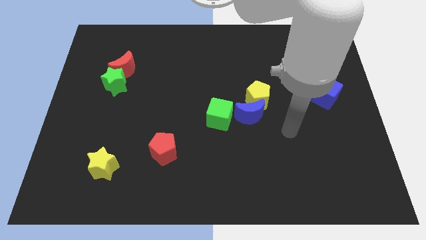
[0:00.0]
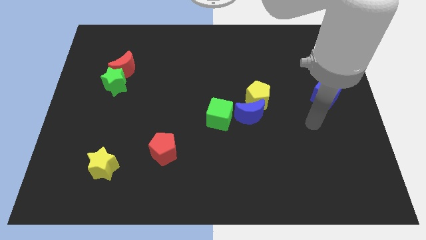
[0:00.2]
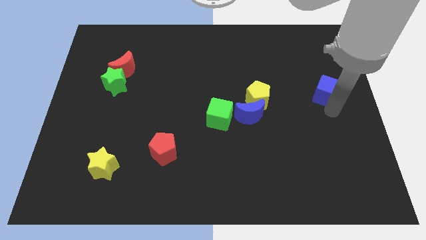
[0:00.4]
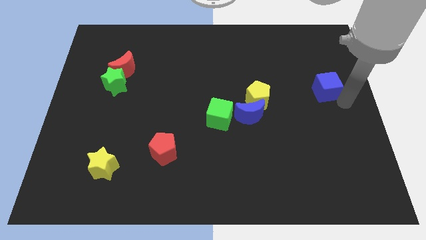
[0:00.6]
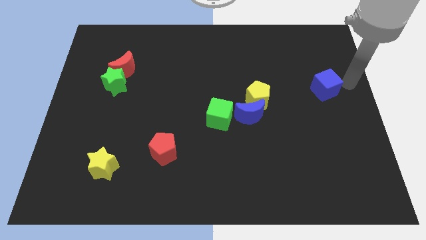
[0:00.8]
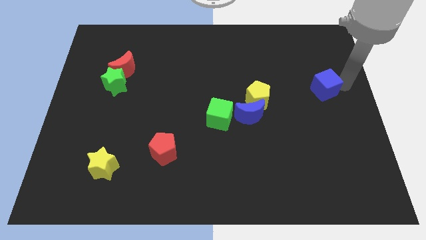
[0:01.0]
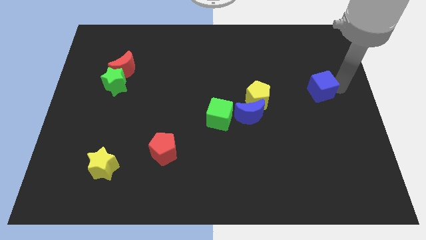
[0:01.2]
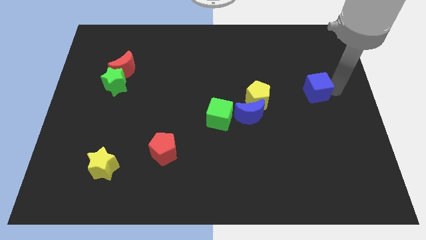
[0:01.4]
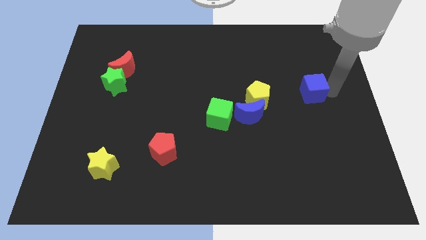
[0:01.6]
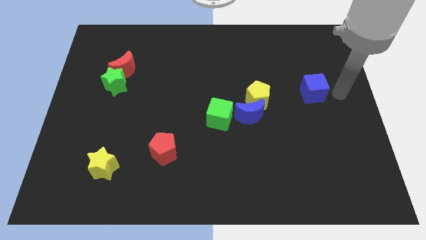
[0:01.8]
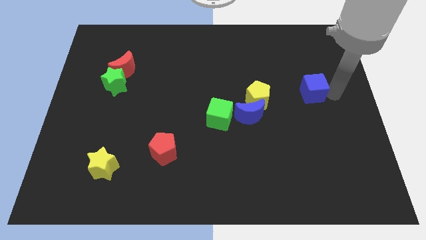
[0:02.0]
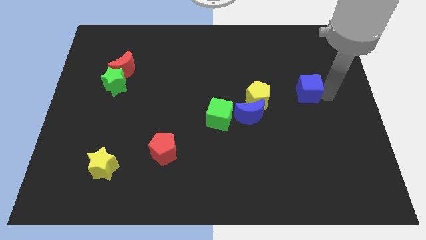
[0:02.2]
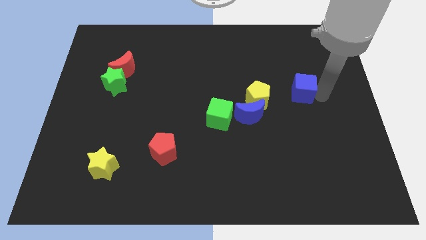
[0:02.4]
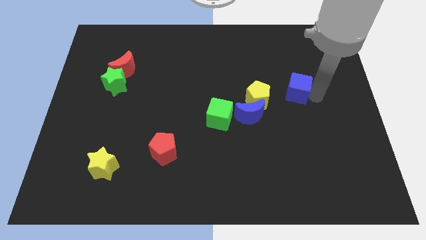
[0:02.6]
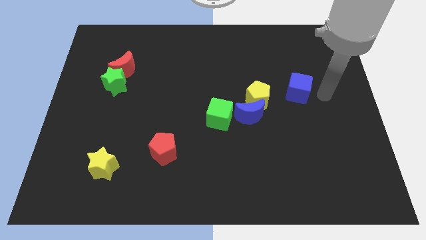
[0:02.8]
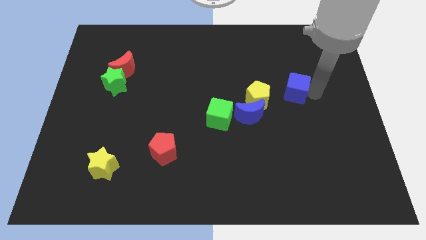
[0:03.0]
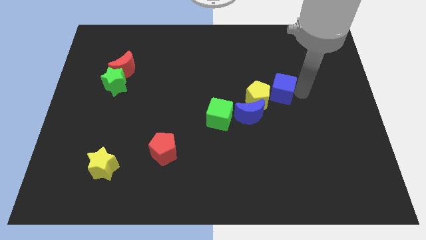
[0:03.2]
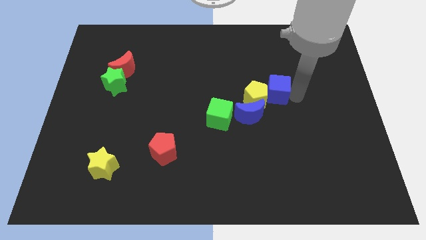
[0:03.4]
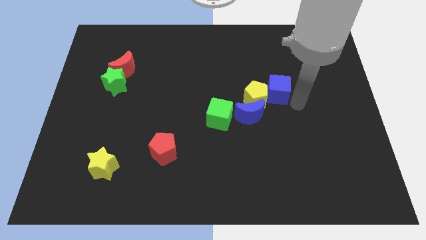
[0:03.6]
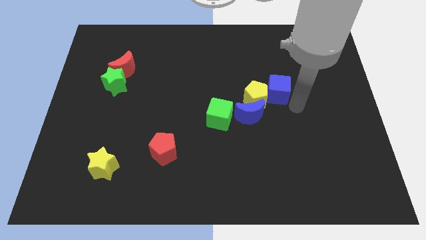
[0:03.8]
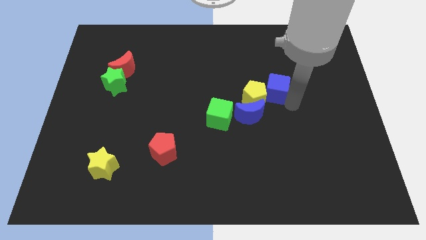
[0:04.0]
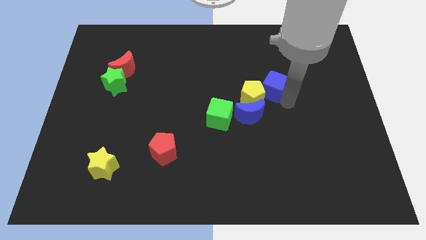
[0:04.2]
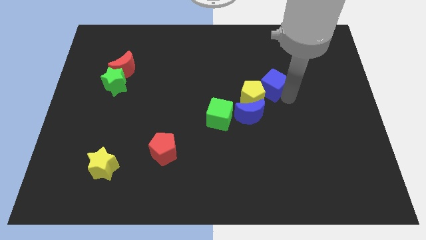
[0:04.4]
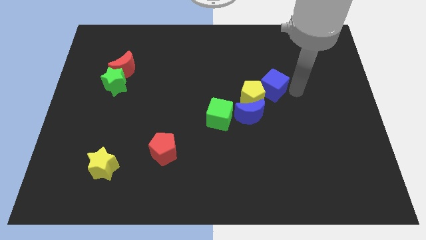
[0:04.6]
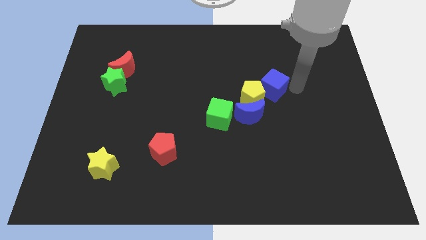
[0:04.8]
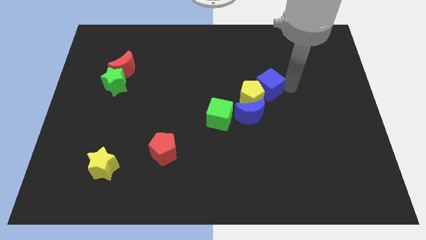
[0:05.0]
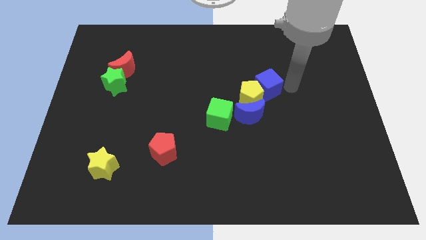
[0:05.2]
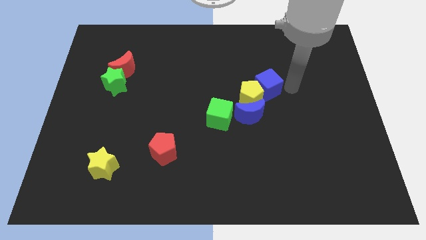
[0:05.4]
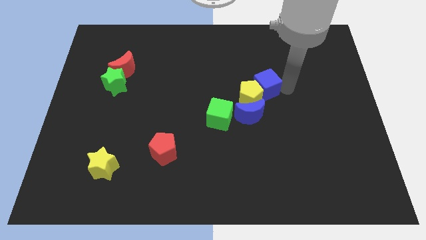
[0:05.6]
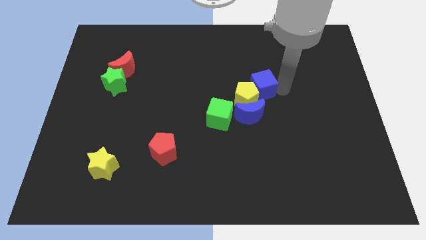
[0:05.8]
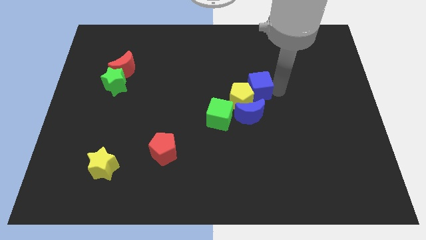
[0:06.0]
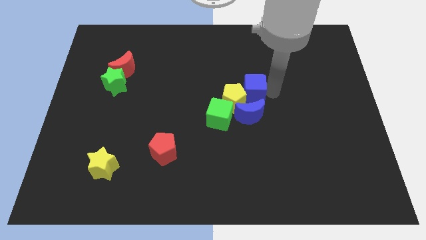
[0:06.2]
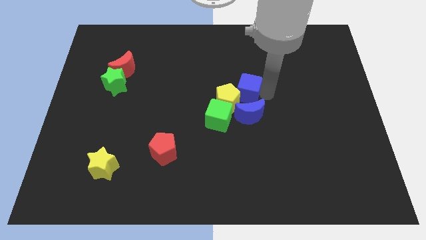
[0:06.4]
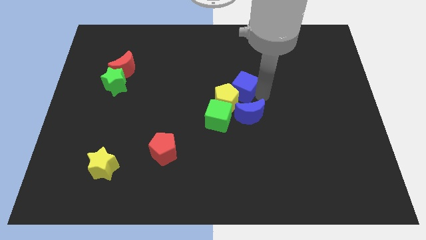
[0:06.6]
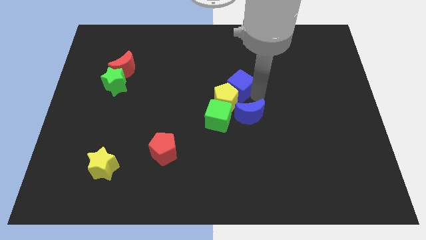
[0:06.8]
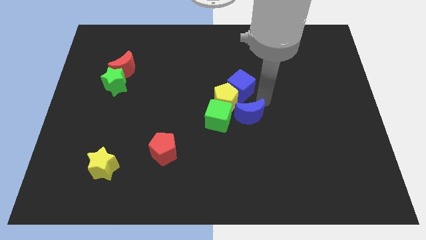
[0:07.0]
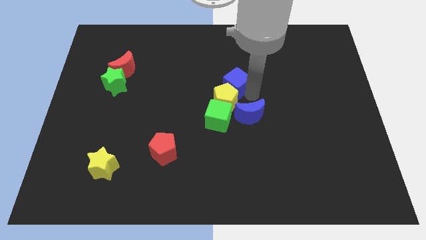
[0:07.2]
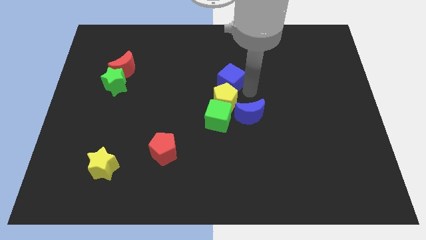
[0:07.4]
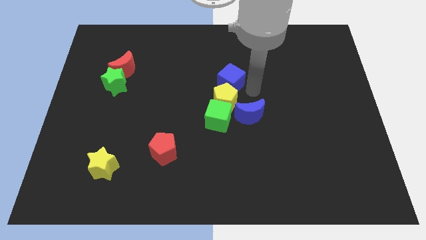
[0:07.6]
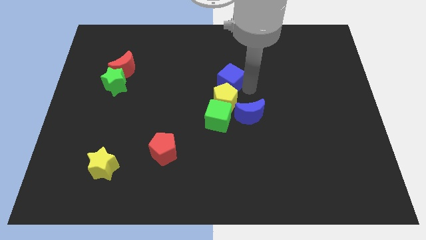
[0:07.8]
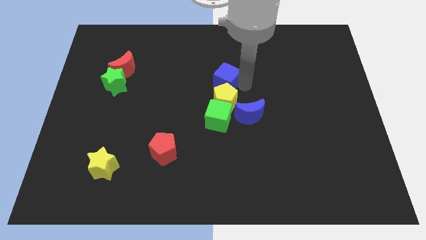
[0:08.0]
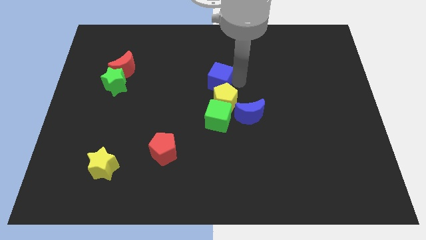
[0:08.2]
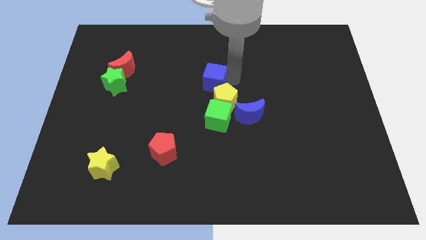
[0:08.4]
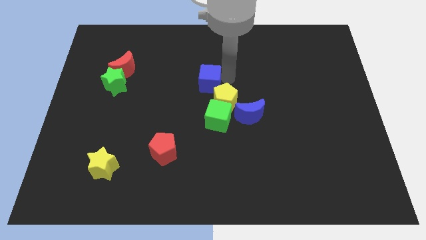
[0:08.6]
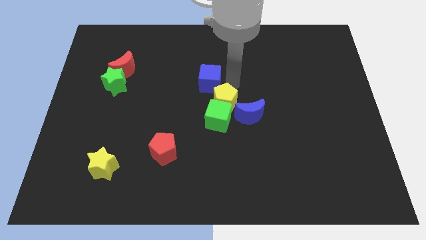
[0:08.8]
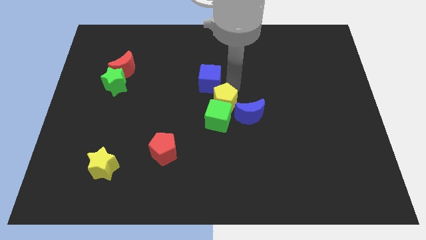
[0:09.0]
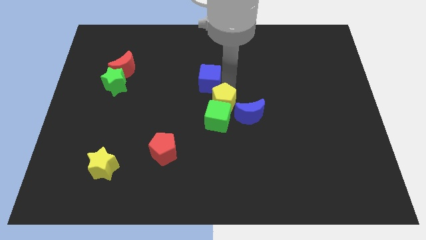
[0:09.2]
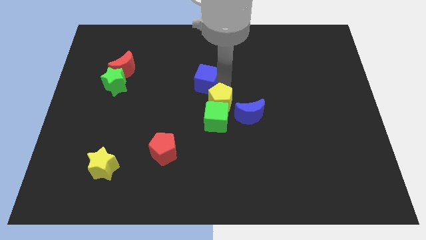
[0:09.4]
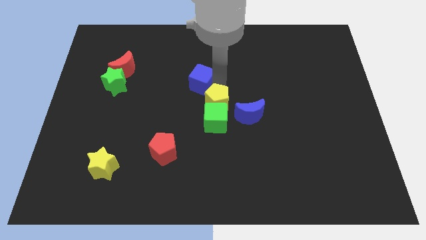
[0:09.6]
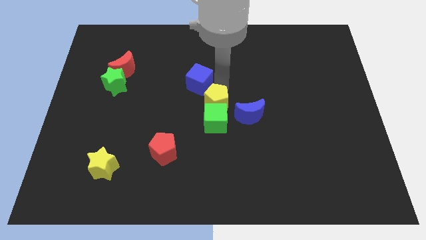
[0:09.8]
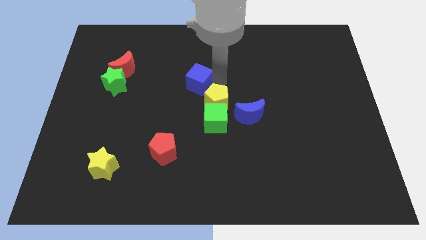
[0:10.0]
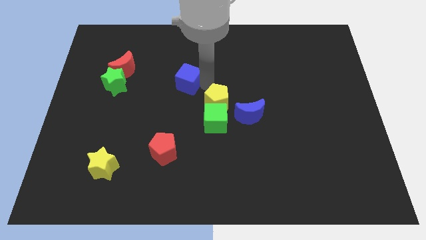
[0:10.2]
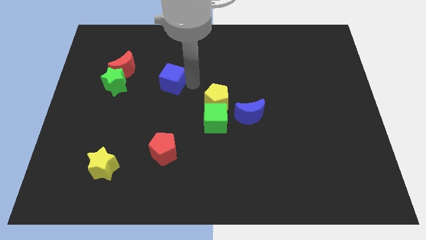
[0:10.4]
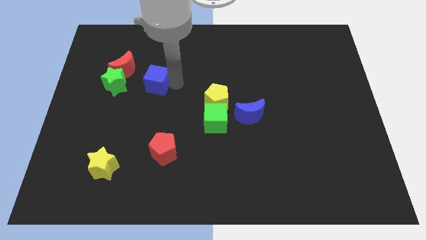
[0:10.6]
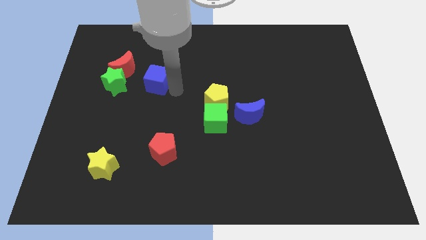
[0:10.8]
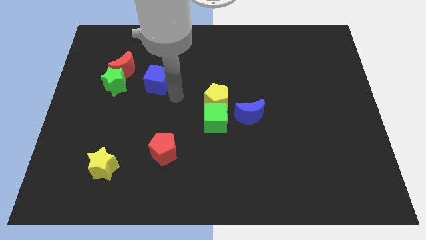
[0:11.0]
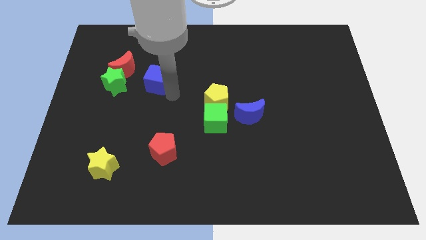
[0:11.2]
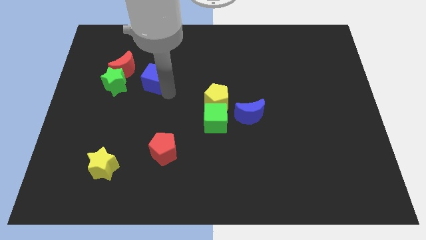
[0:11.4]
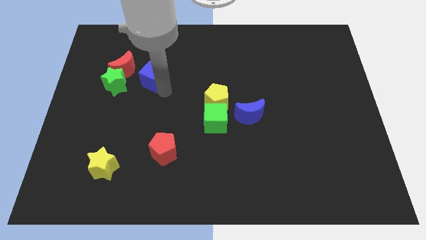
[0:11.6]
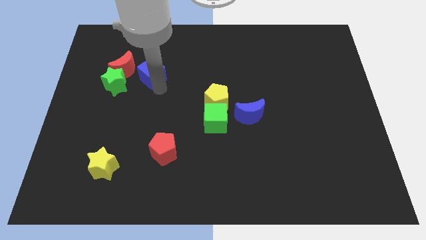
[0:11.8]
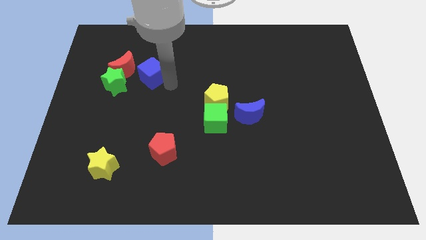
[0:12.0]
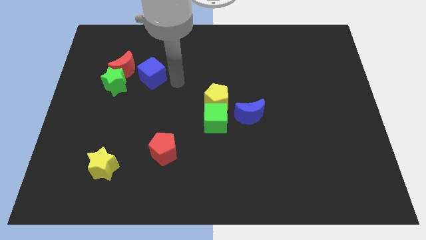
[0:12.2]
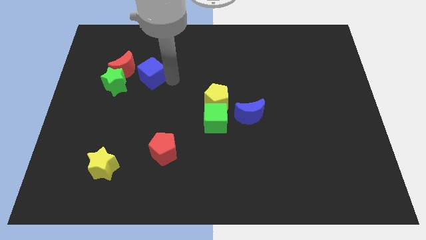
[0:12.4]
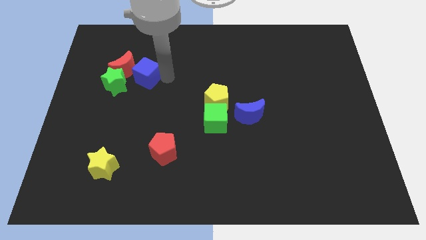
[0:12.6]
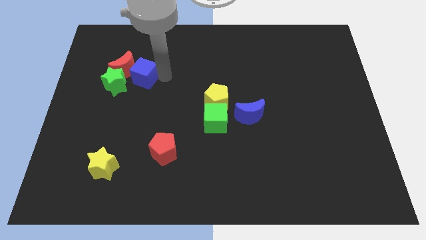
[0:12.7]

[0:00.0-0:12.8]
move the blue cube next to the red moon

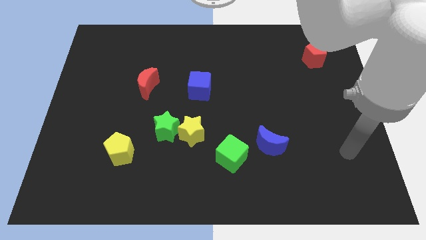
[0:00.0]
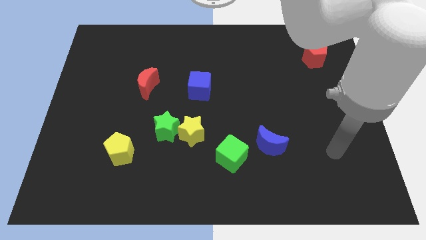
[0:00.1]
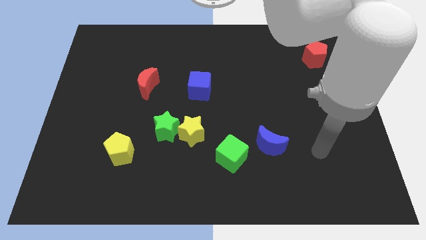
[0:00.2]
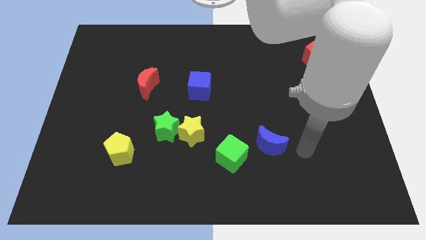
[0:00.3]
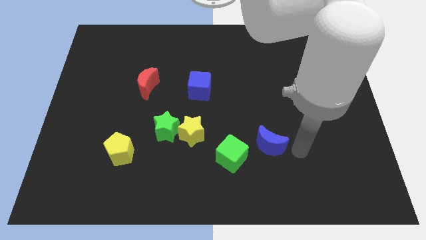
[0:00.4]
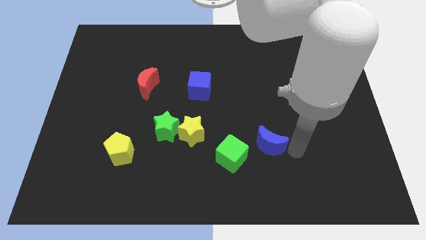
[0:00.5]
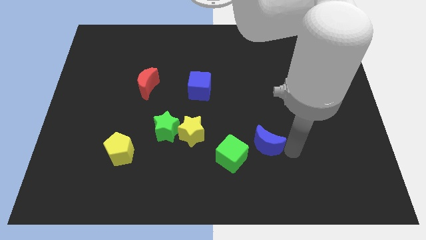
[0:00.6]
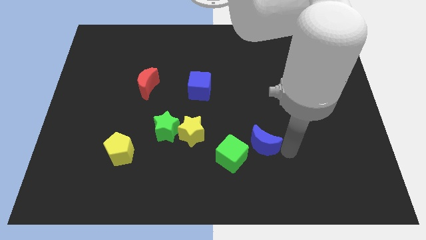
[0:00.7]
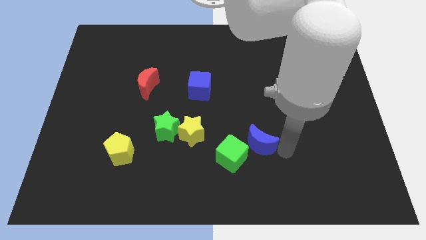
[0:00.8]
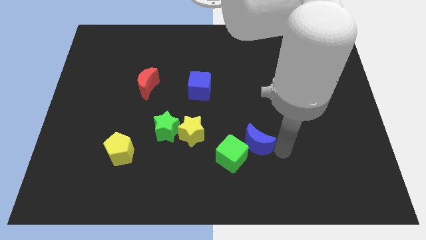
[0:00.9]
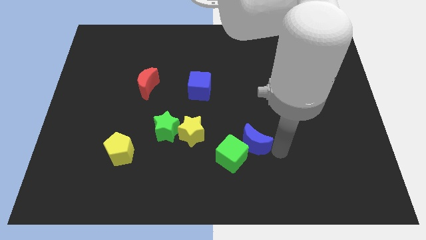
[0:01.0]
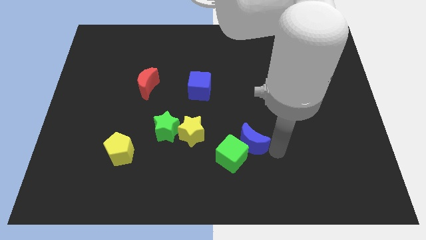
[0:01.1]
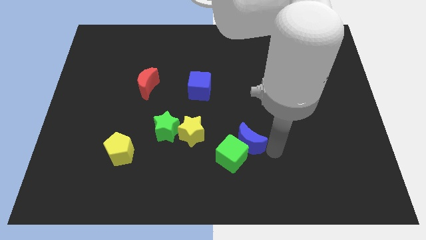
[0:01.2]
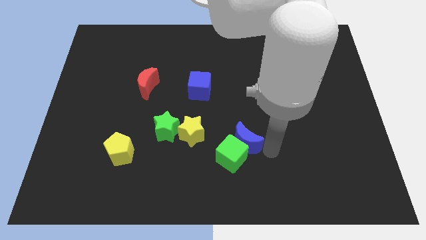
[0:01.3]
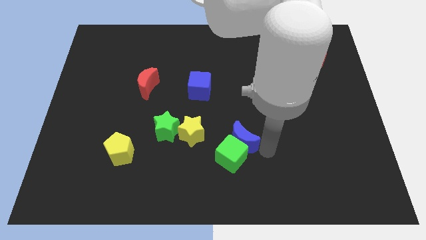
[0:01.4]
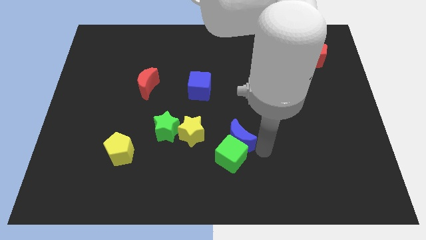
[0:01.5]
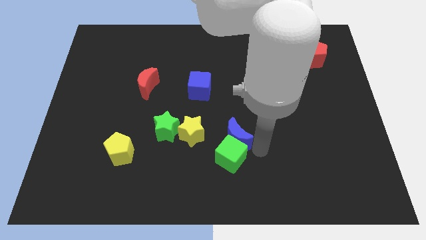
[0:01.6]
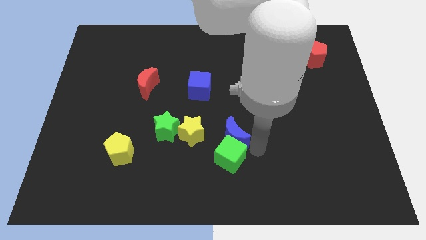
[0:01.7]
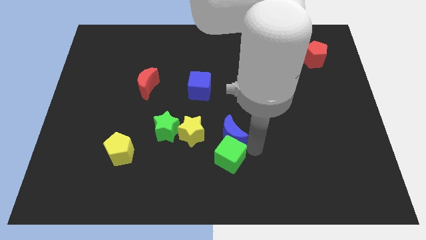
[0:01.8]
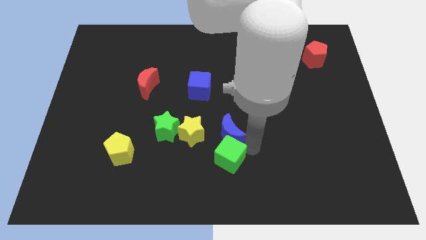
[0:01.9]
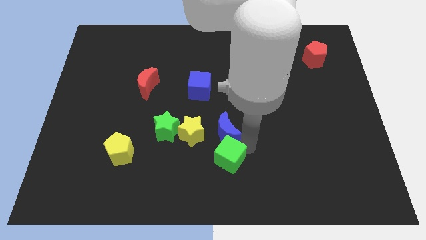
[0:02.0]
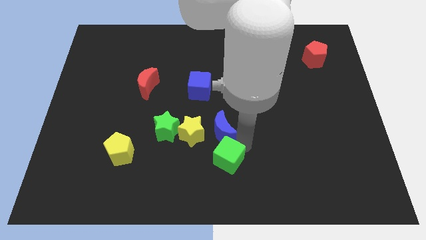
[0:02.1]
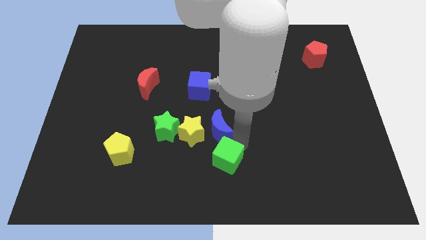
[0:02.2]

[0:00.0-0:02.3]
put the blue moon towards the yellow star
